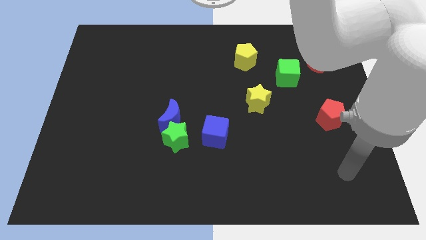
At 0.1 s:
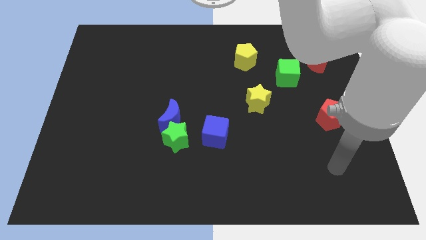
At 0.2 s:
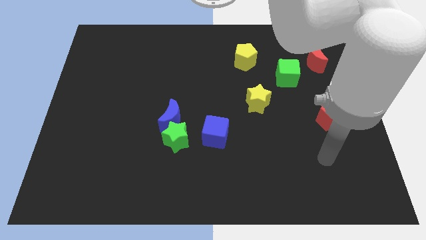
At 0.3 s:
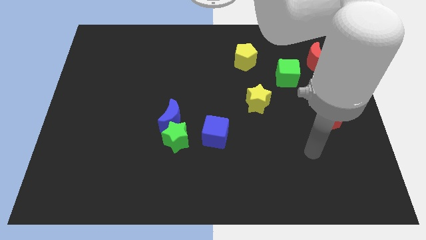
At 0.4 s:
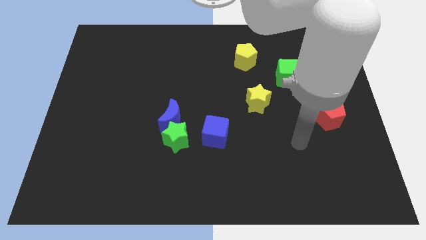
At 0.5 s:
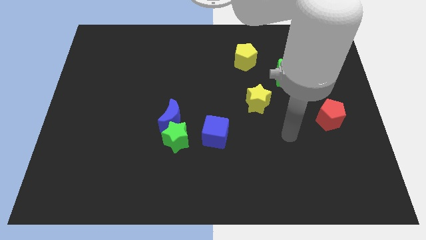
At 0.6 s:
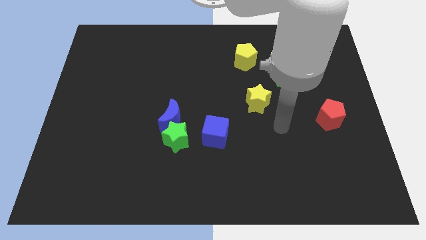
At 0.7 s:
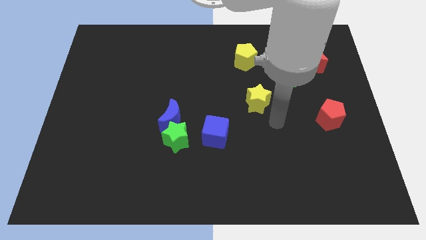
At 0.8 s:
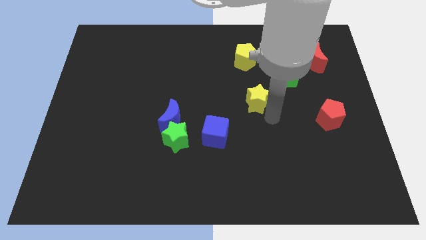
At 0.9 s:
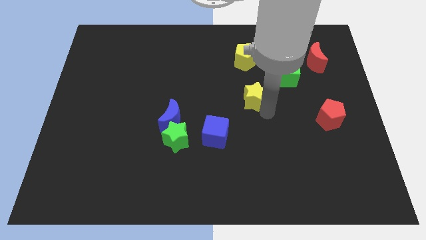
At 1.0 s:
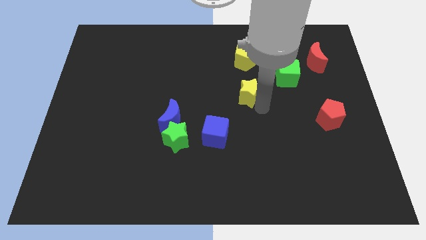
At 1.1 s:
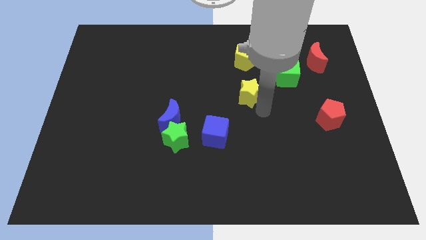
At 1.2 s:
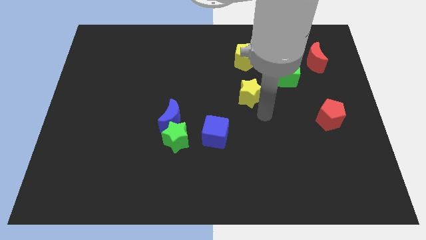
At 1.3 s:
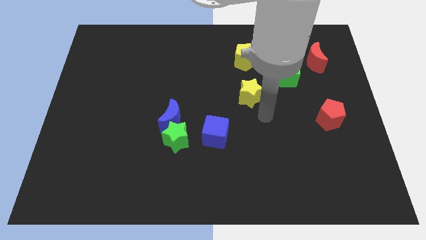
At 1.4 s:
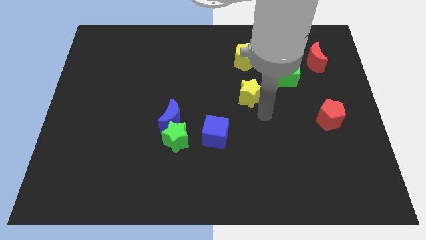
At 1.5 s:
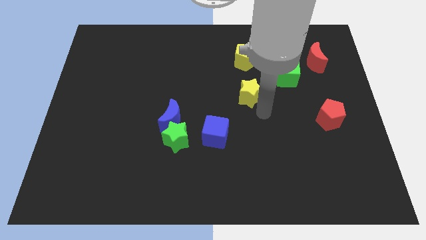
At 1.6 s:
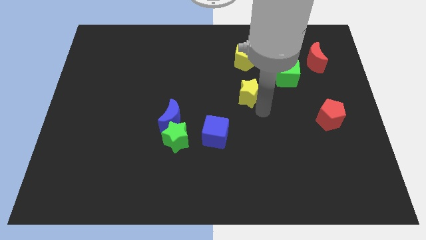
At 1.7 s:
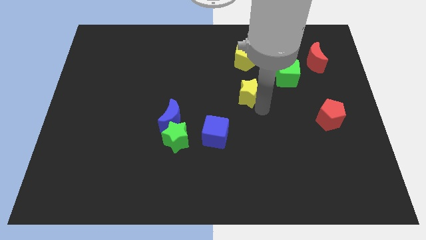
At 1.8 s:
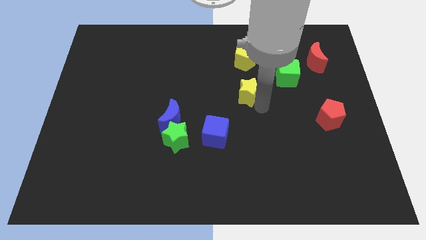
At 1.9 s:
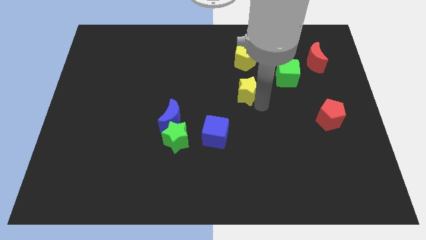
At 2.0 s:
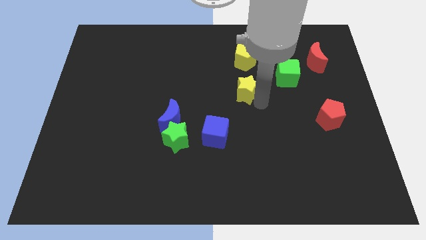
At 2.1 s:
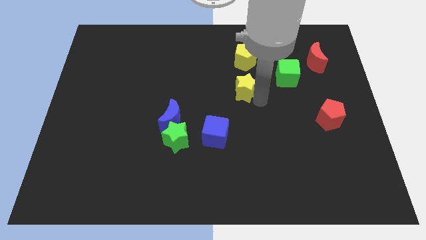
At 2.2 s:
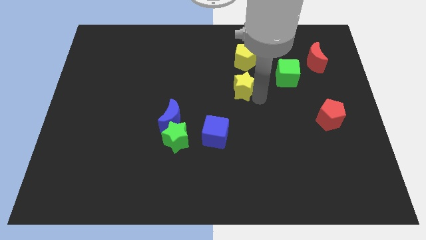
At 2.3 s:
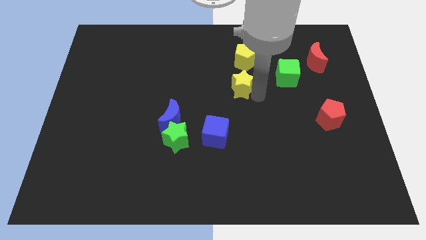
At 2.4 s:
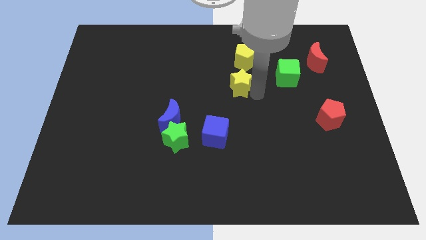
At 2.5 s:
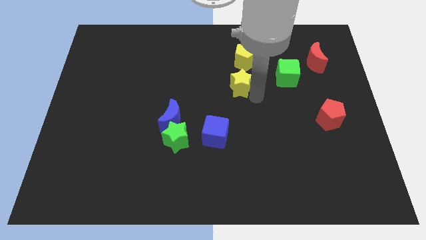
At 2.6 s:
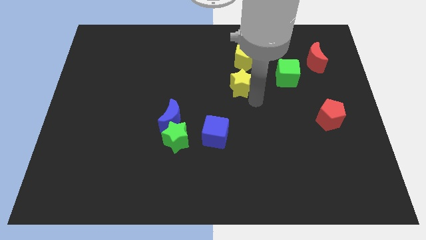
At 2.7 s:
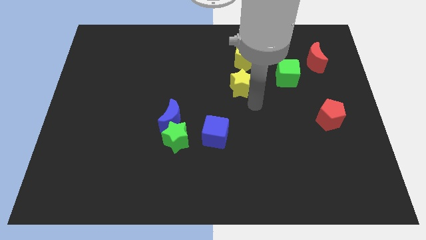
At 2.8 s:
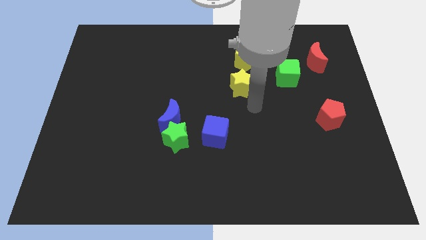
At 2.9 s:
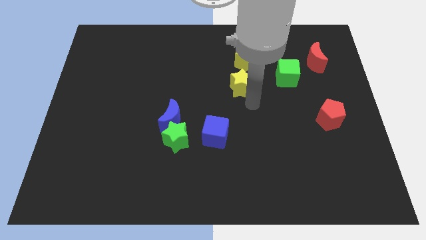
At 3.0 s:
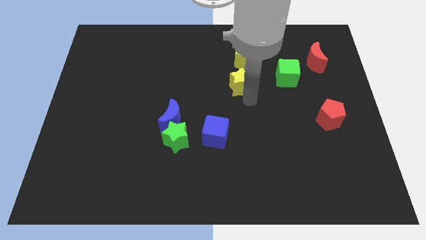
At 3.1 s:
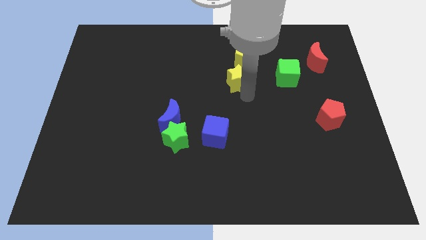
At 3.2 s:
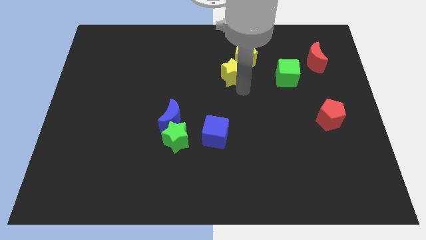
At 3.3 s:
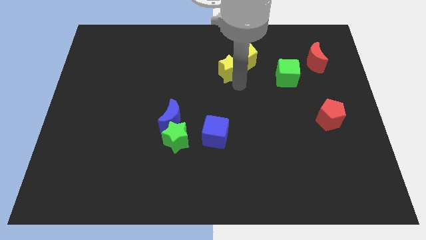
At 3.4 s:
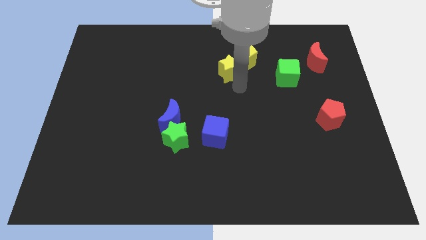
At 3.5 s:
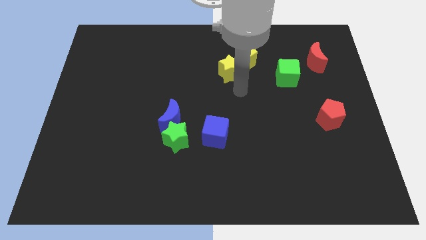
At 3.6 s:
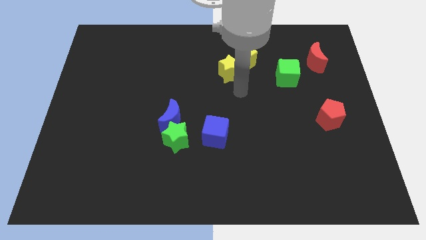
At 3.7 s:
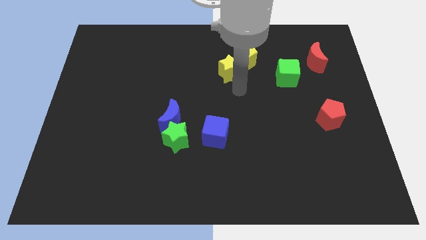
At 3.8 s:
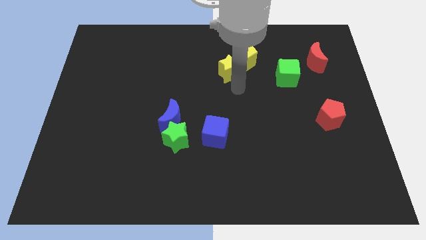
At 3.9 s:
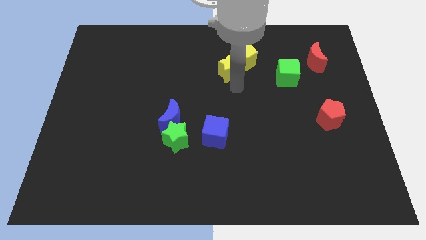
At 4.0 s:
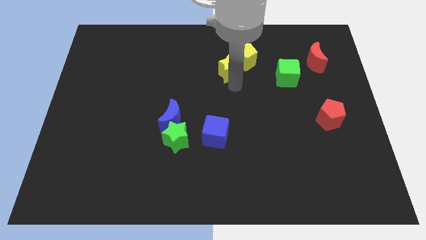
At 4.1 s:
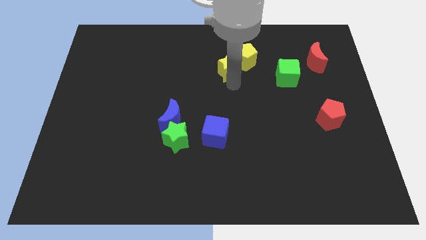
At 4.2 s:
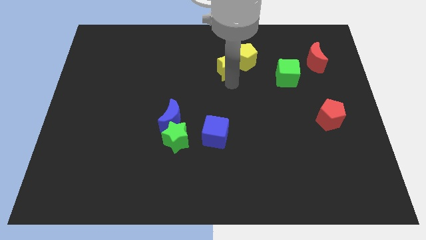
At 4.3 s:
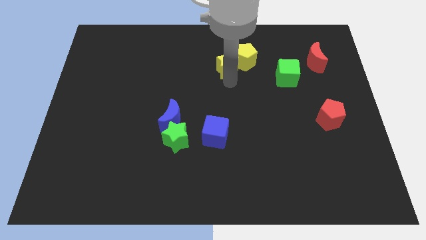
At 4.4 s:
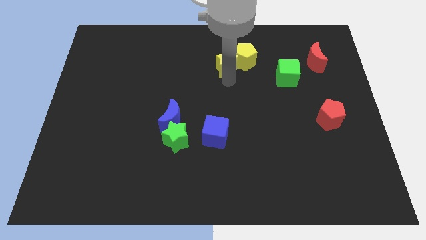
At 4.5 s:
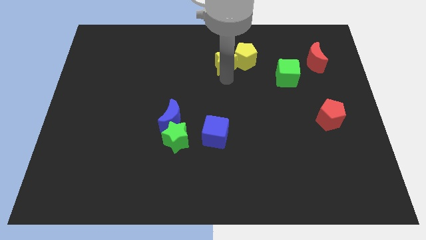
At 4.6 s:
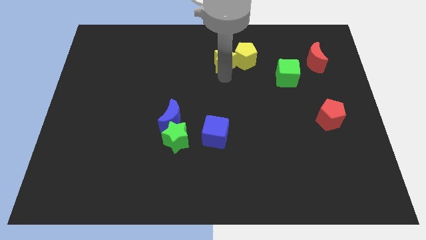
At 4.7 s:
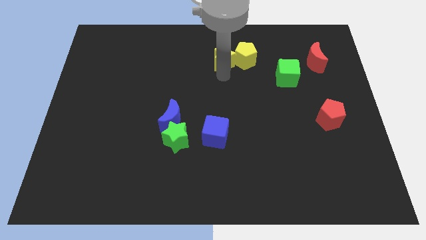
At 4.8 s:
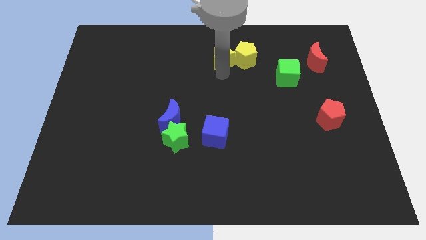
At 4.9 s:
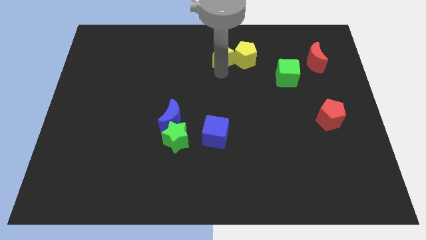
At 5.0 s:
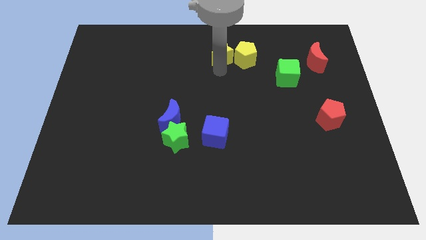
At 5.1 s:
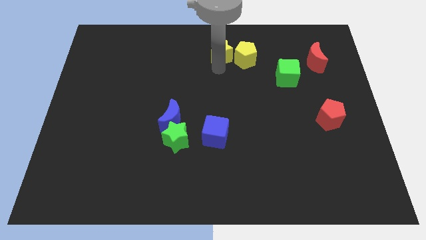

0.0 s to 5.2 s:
put the yellow star to the top side

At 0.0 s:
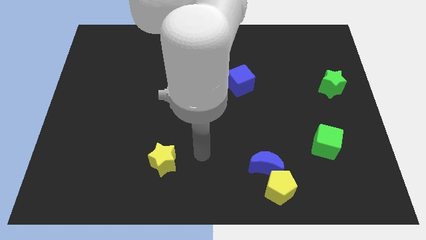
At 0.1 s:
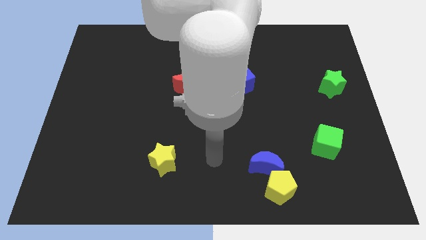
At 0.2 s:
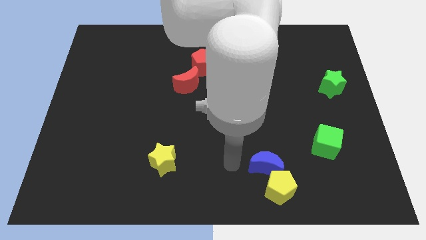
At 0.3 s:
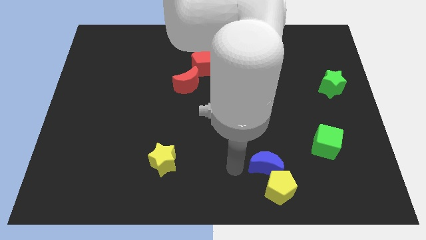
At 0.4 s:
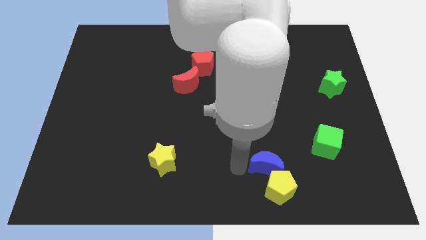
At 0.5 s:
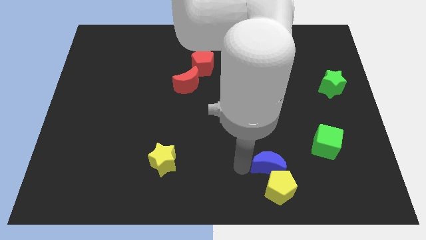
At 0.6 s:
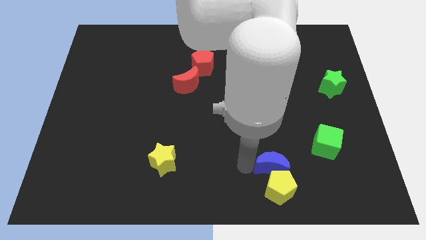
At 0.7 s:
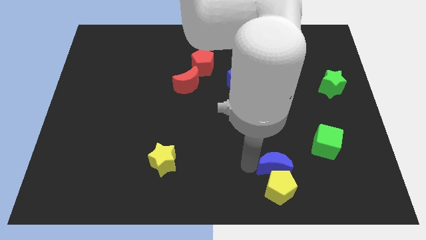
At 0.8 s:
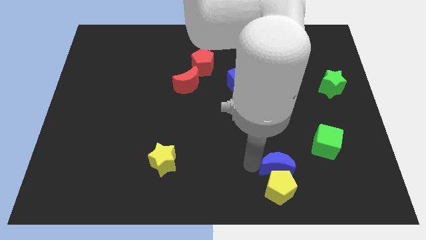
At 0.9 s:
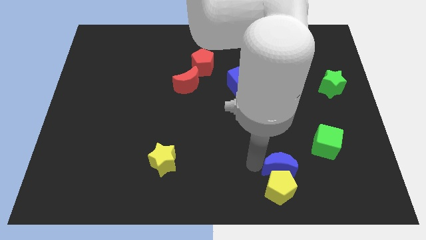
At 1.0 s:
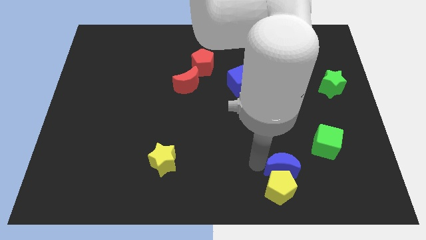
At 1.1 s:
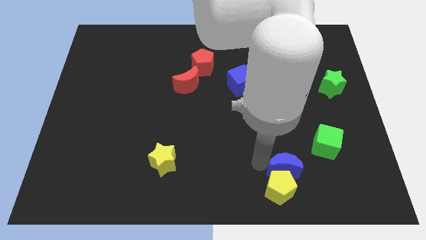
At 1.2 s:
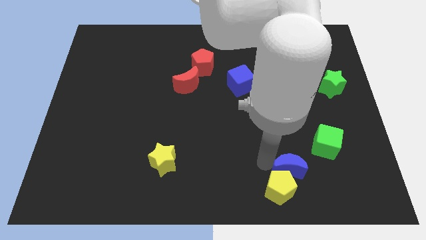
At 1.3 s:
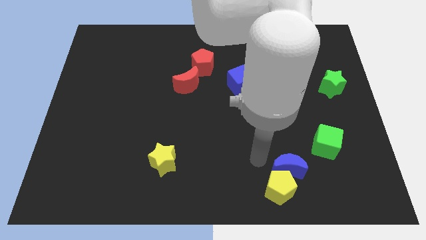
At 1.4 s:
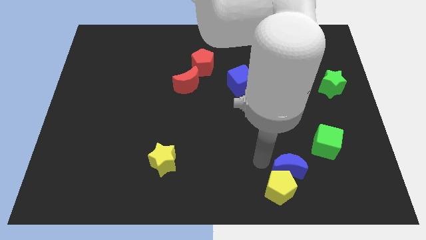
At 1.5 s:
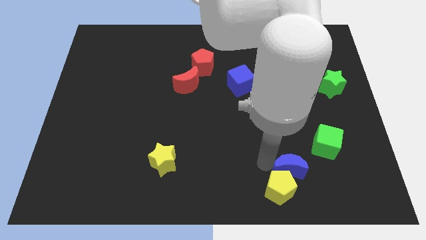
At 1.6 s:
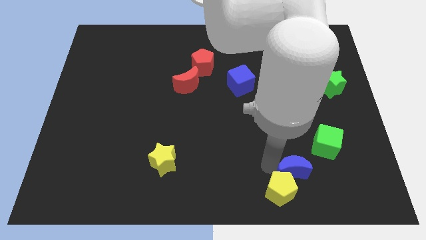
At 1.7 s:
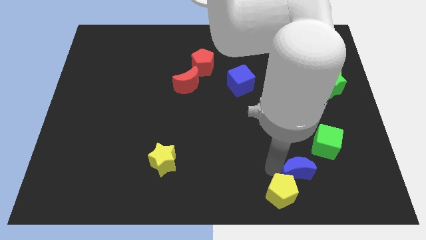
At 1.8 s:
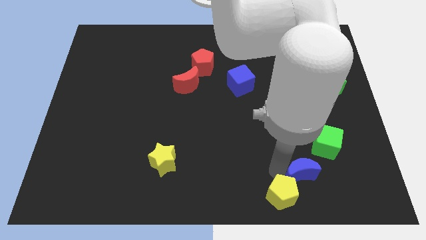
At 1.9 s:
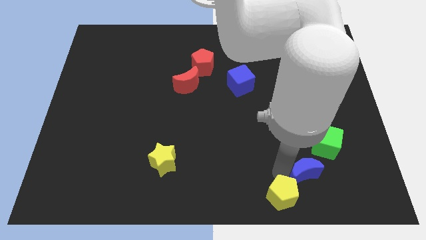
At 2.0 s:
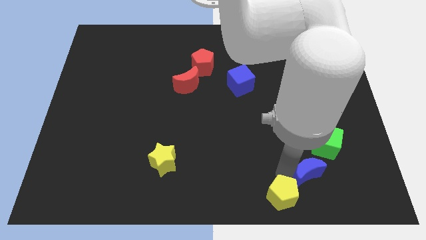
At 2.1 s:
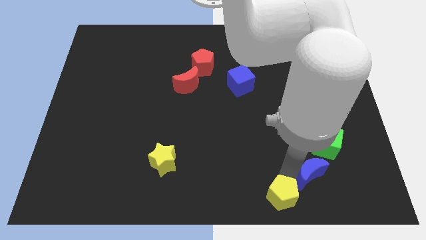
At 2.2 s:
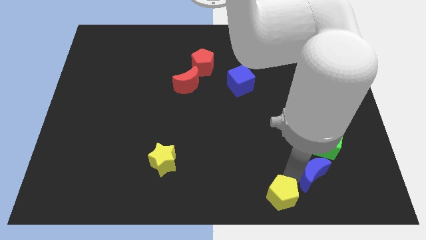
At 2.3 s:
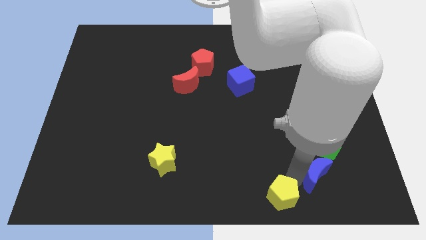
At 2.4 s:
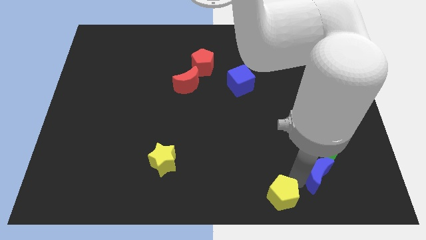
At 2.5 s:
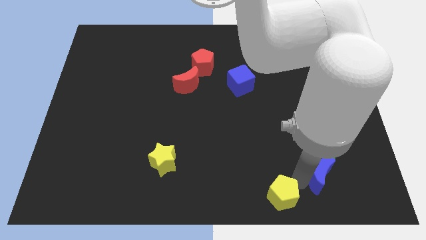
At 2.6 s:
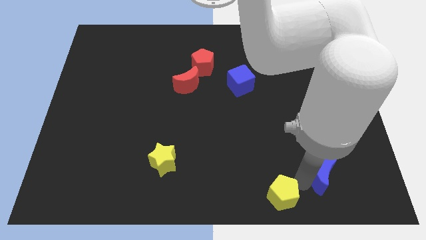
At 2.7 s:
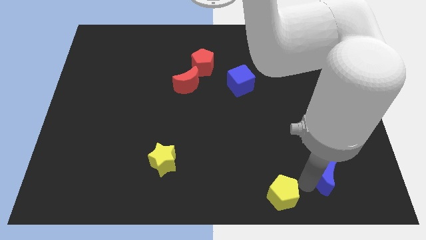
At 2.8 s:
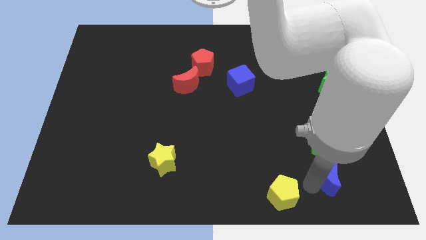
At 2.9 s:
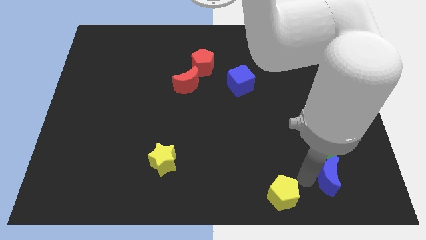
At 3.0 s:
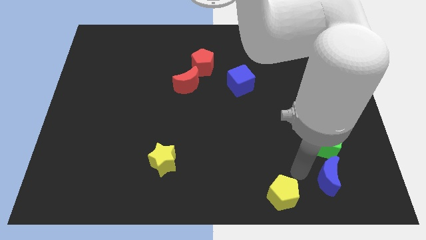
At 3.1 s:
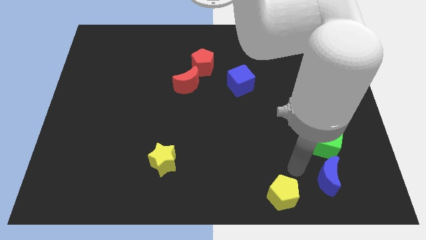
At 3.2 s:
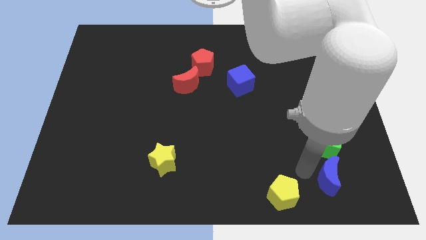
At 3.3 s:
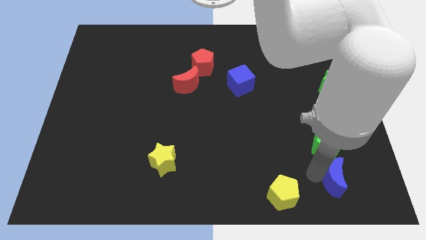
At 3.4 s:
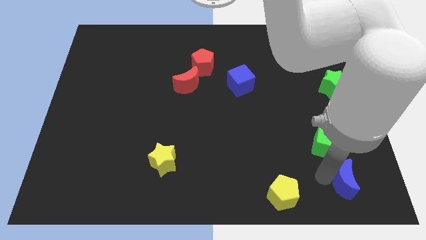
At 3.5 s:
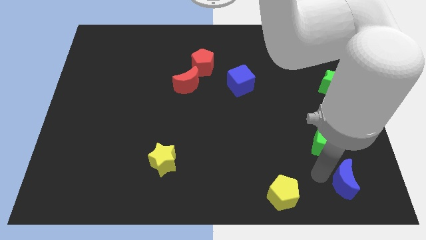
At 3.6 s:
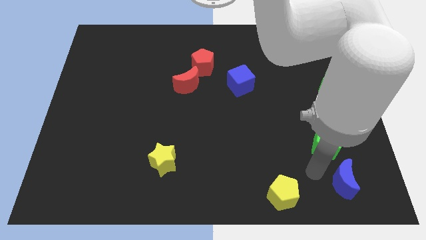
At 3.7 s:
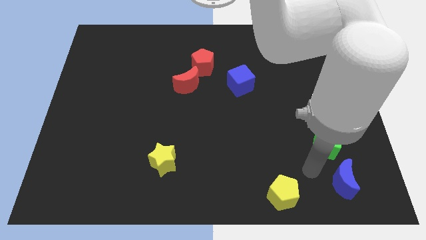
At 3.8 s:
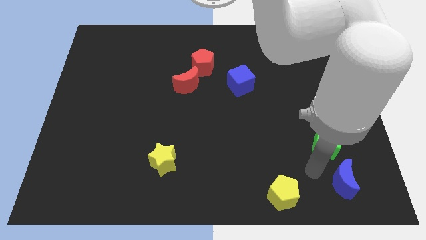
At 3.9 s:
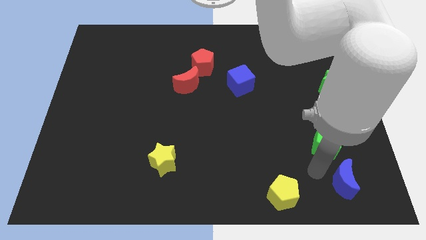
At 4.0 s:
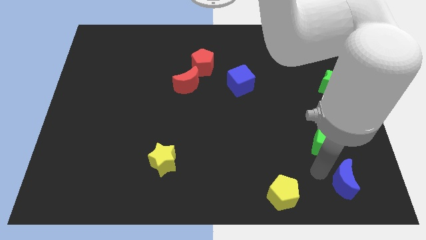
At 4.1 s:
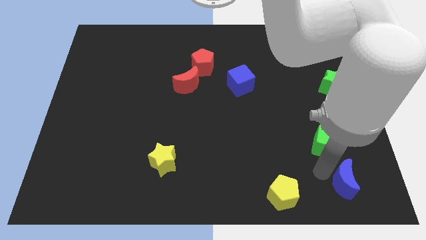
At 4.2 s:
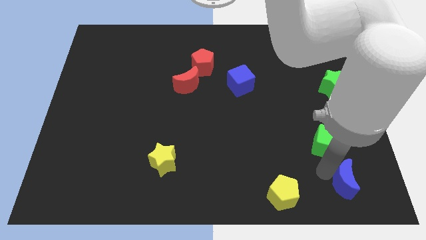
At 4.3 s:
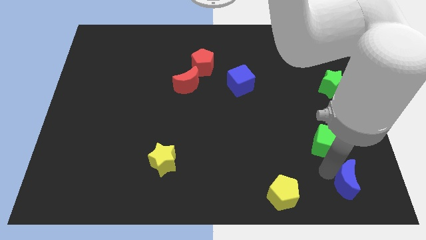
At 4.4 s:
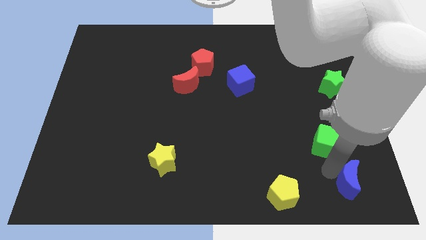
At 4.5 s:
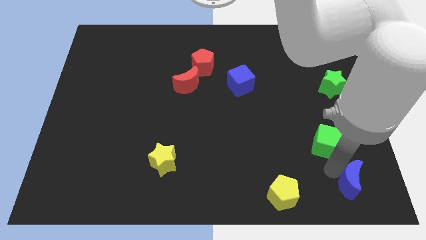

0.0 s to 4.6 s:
put the blue moon to the bottom right of the board
